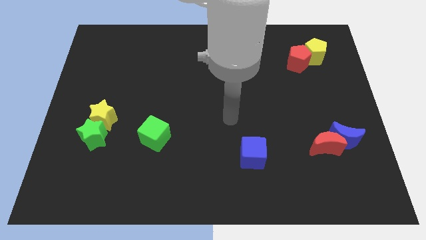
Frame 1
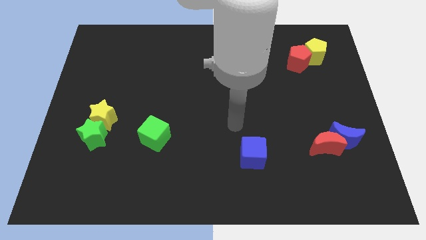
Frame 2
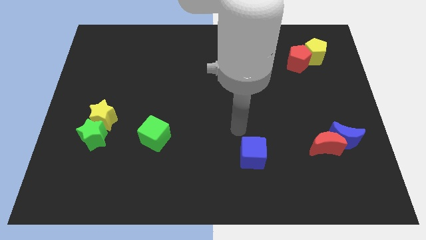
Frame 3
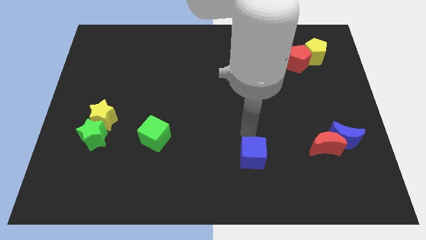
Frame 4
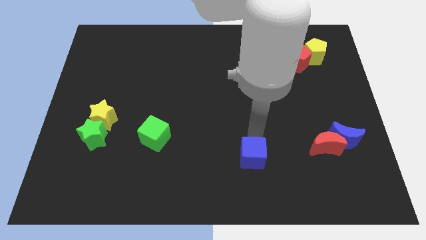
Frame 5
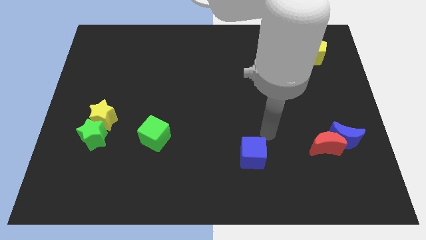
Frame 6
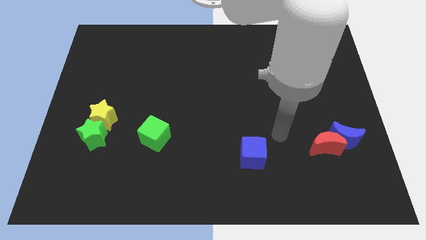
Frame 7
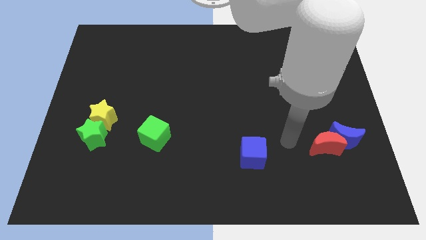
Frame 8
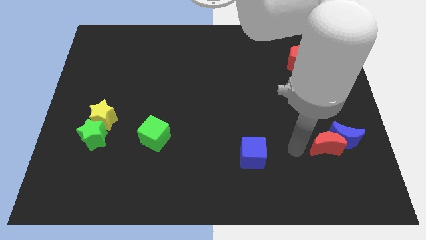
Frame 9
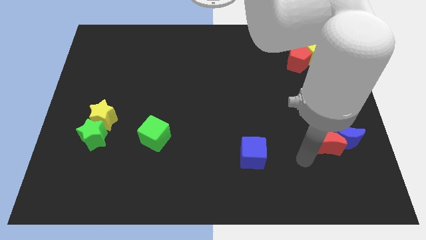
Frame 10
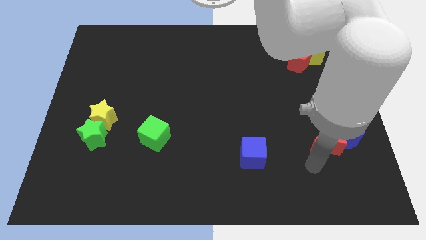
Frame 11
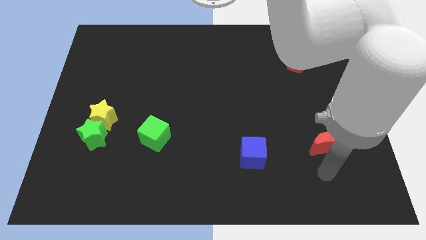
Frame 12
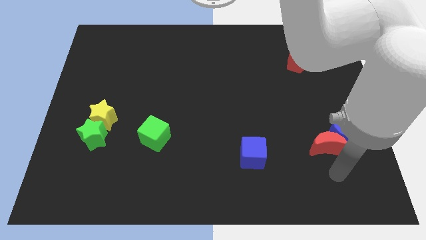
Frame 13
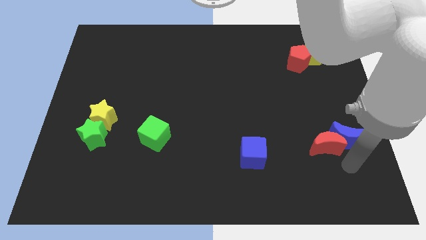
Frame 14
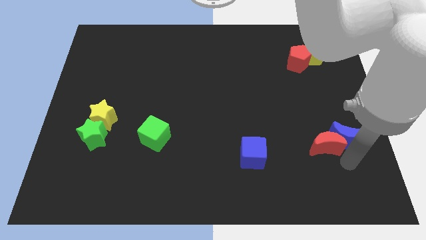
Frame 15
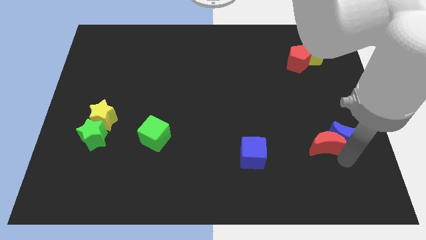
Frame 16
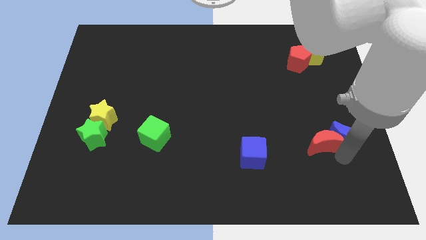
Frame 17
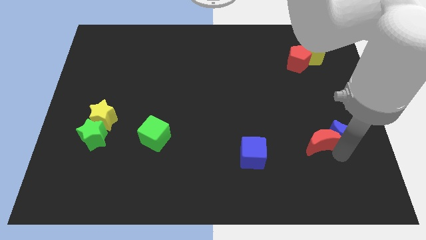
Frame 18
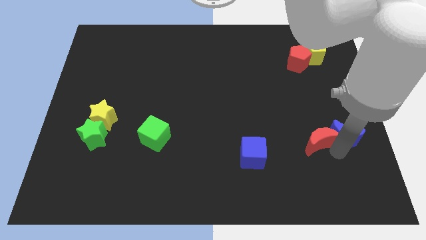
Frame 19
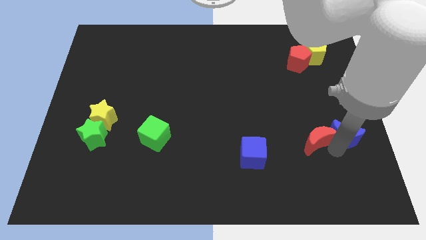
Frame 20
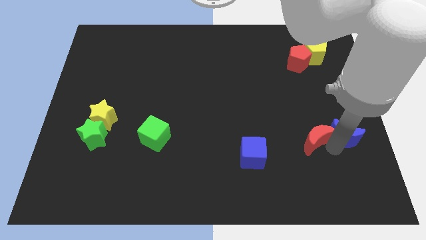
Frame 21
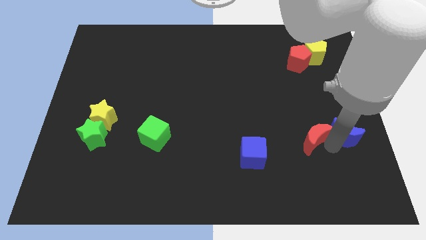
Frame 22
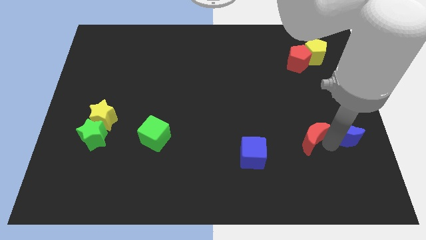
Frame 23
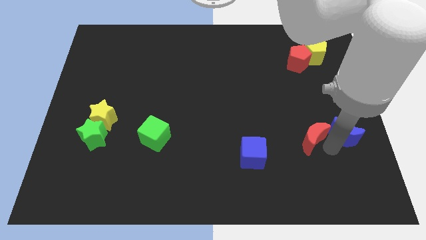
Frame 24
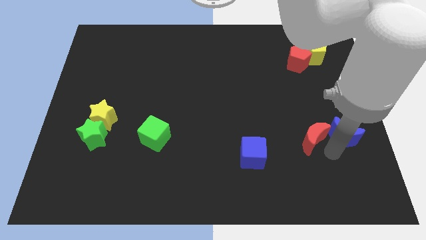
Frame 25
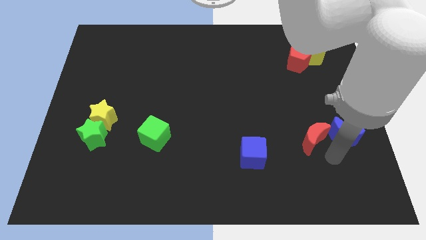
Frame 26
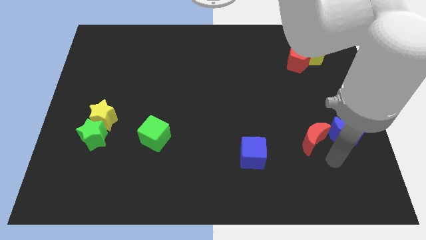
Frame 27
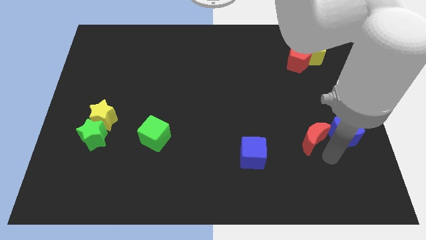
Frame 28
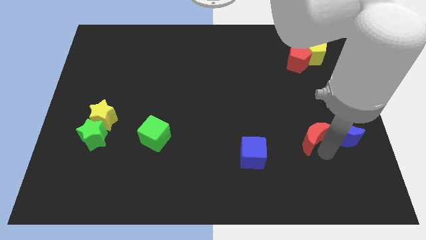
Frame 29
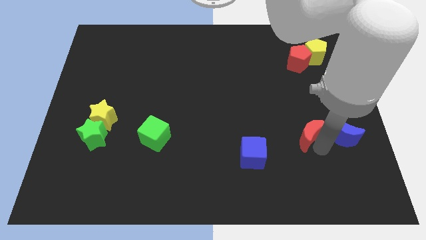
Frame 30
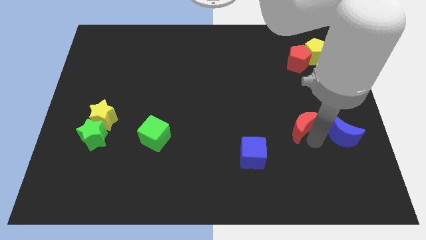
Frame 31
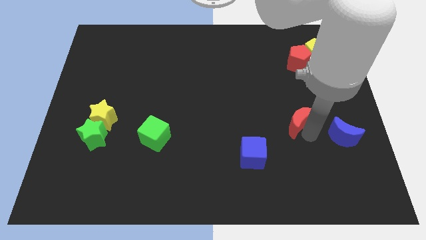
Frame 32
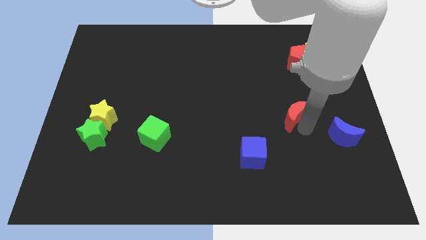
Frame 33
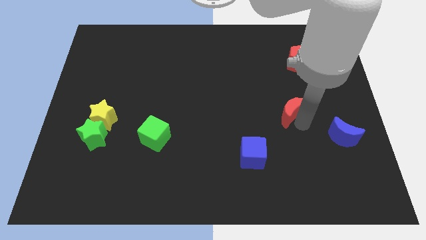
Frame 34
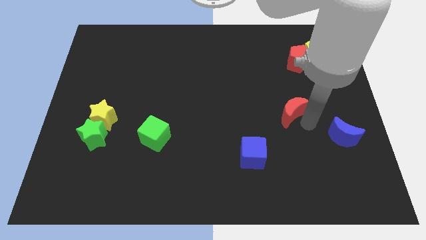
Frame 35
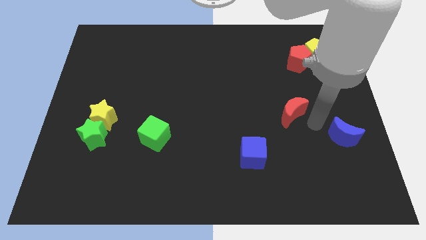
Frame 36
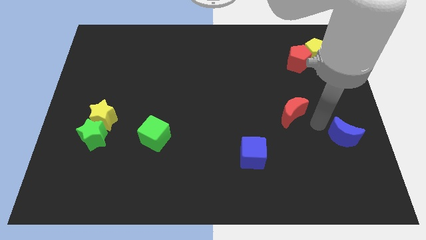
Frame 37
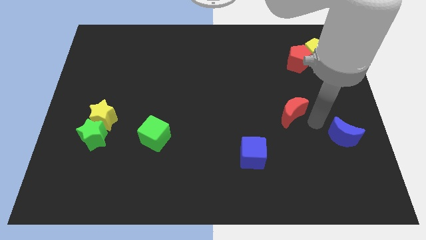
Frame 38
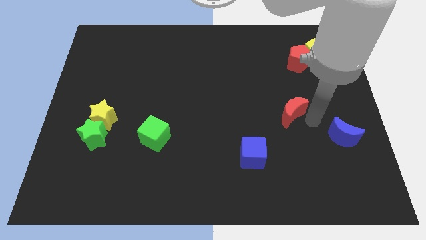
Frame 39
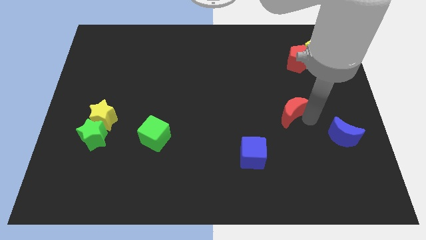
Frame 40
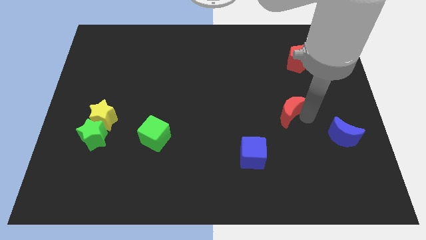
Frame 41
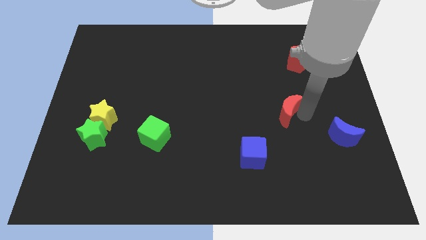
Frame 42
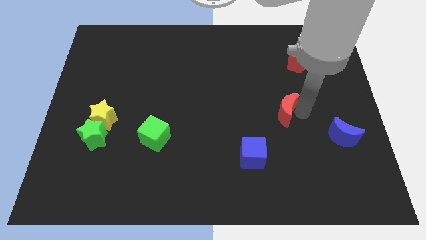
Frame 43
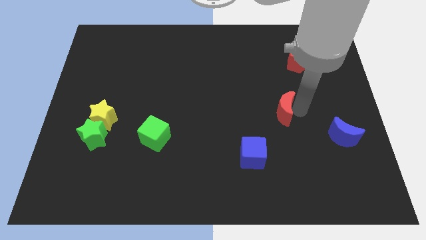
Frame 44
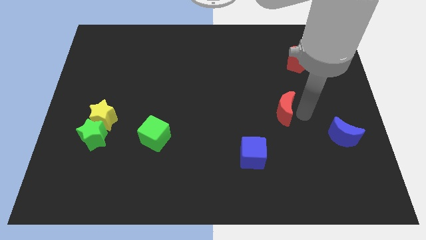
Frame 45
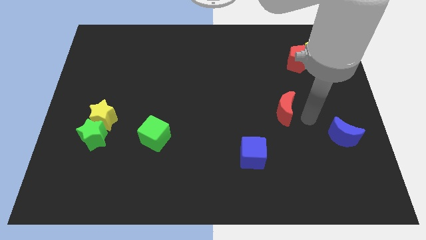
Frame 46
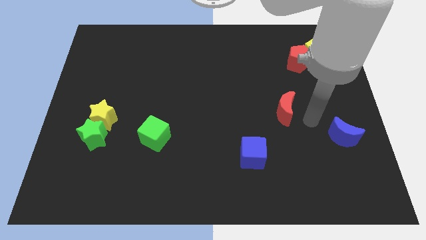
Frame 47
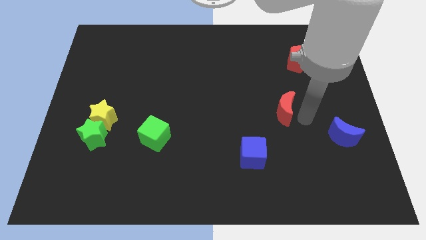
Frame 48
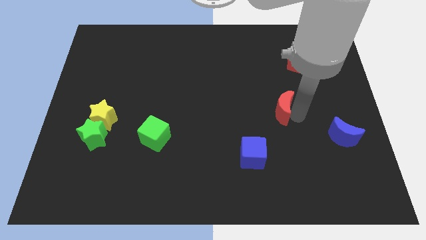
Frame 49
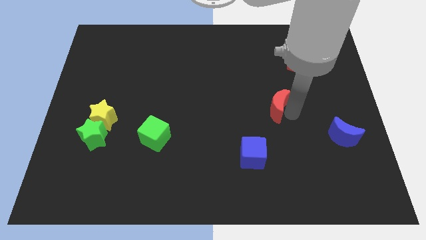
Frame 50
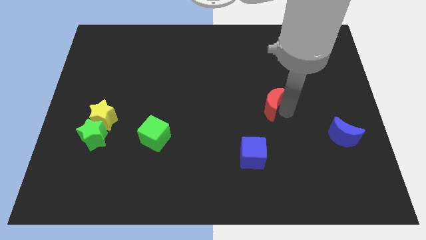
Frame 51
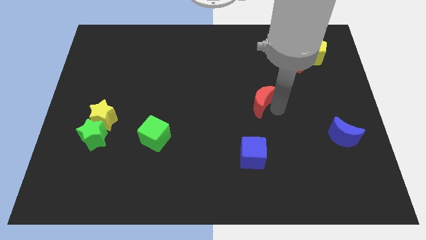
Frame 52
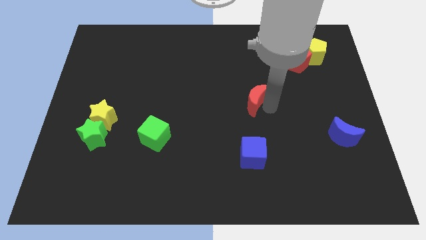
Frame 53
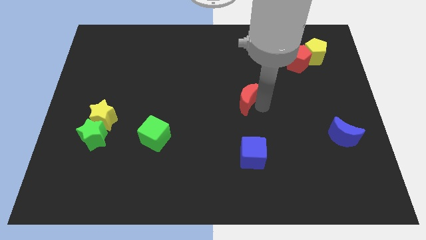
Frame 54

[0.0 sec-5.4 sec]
slide the red moon upwards and then to the left

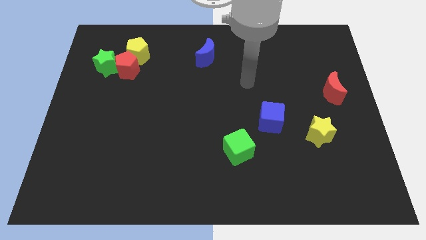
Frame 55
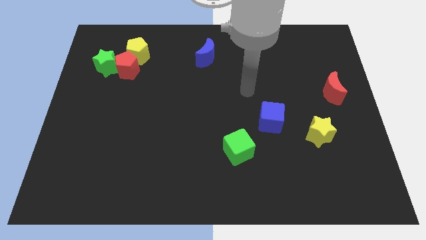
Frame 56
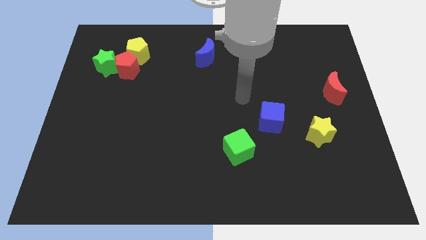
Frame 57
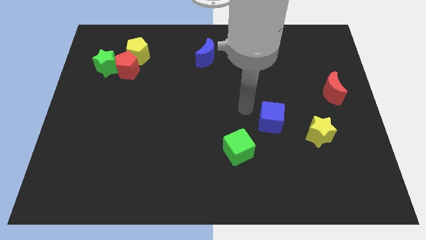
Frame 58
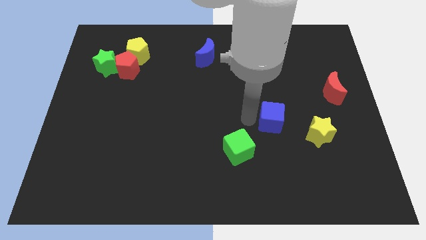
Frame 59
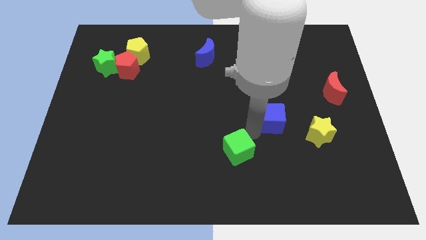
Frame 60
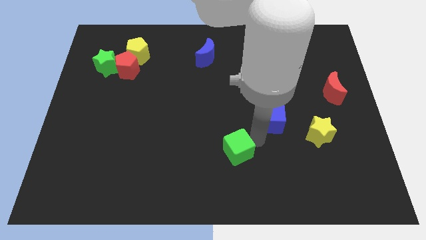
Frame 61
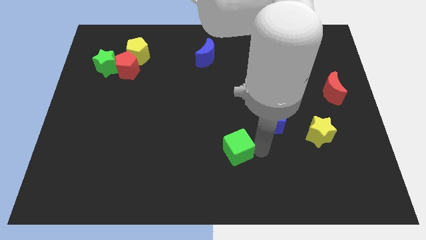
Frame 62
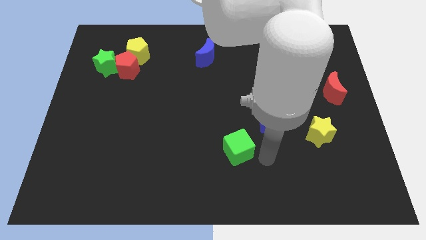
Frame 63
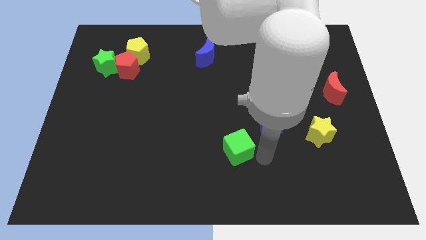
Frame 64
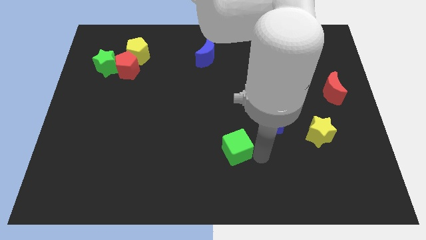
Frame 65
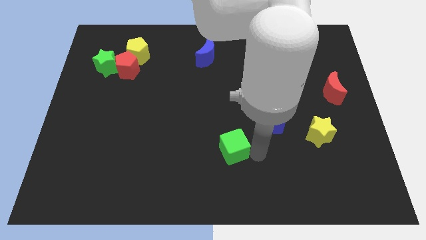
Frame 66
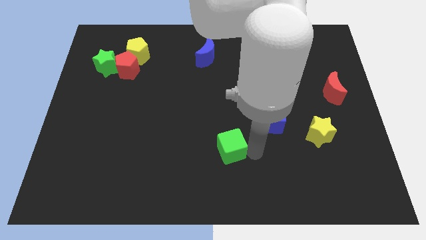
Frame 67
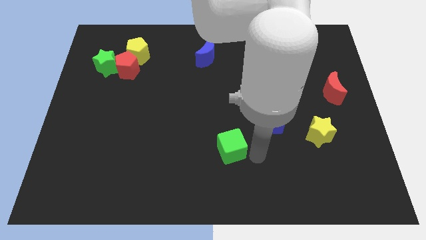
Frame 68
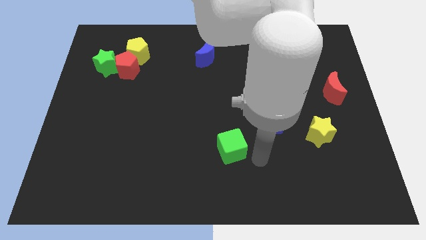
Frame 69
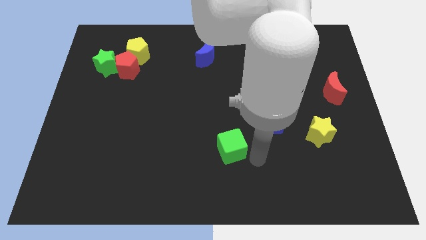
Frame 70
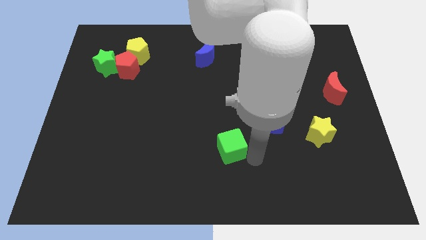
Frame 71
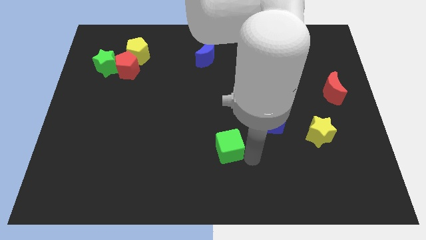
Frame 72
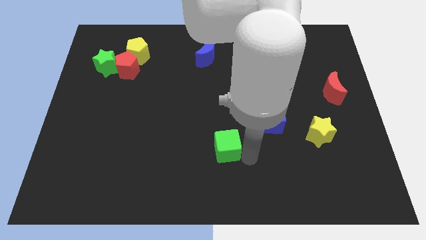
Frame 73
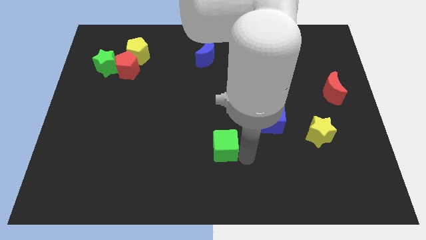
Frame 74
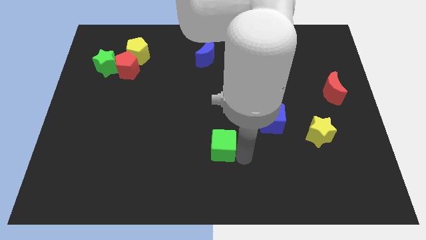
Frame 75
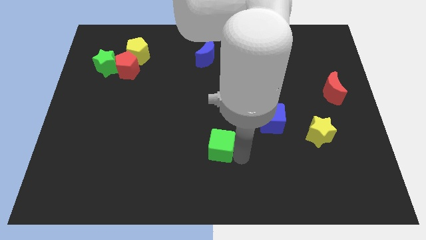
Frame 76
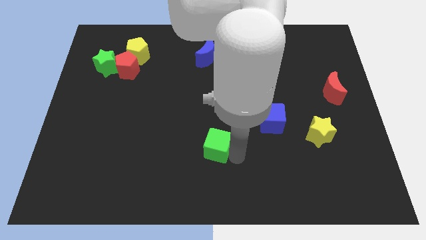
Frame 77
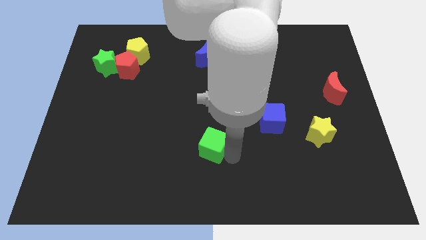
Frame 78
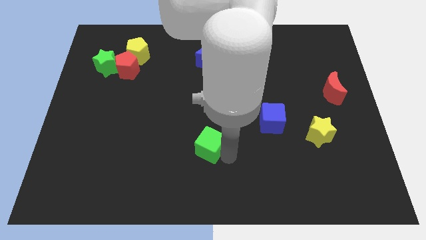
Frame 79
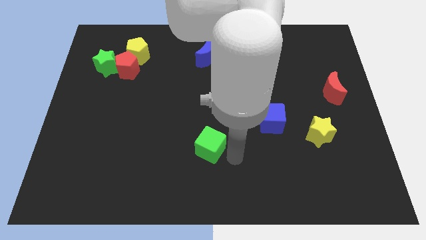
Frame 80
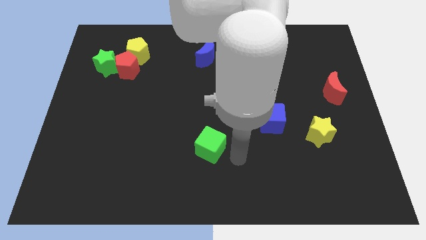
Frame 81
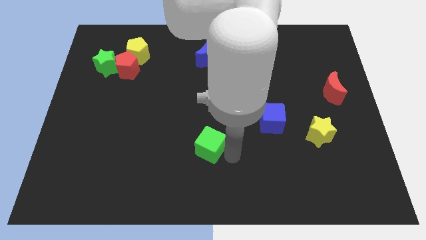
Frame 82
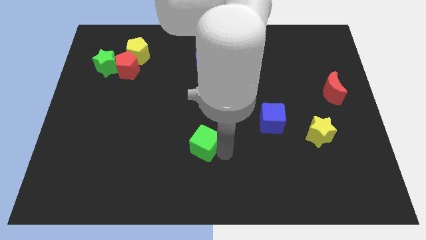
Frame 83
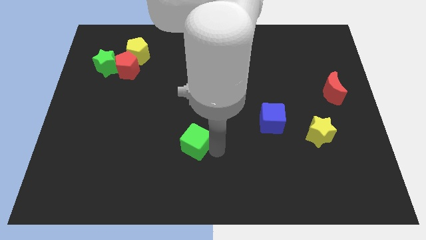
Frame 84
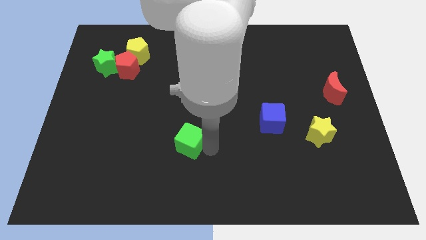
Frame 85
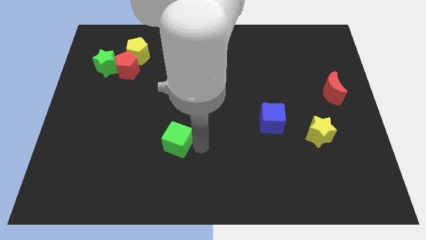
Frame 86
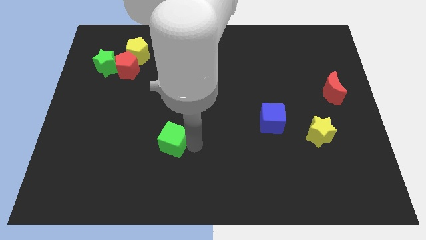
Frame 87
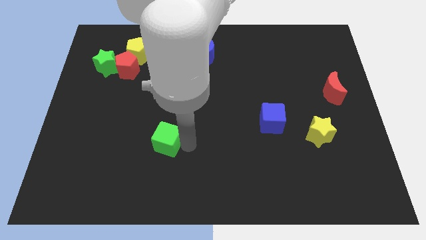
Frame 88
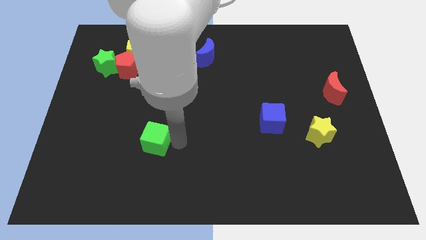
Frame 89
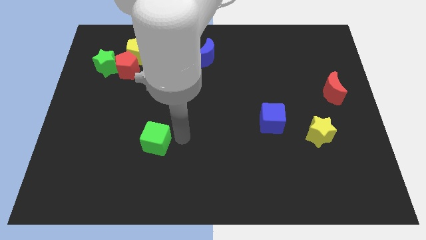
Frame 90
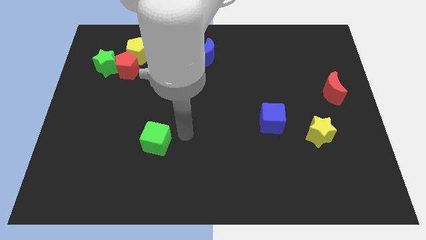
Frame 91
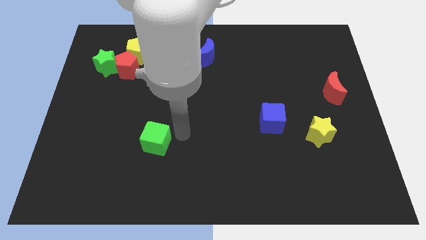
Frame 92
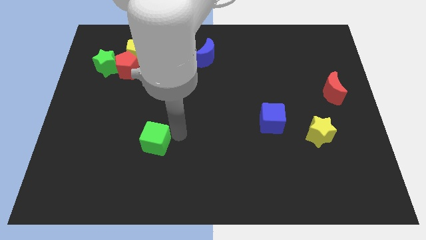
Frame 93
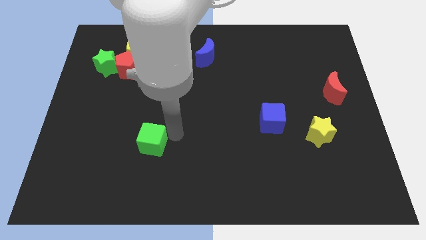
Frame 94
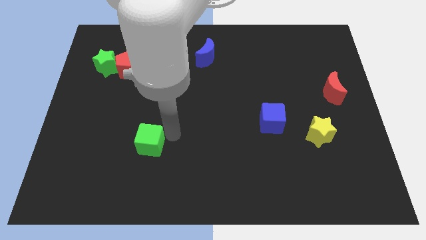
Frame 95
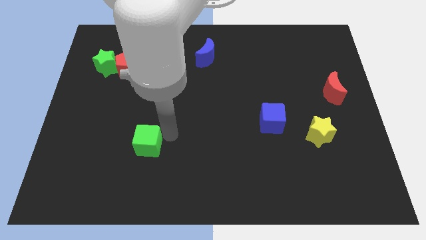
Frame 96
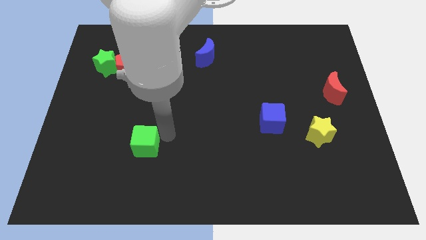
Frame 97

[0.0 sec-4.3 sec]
push the green cube to the left
